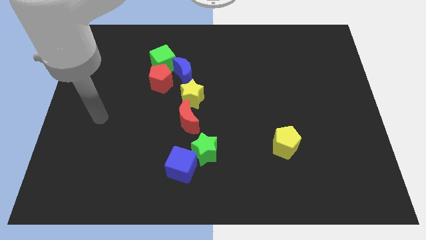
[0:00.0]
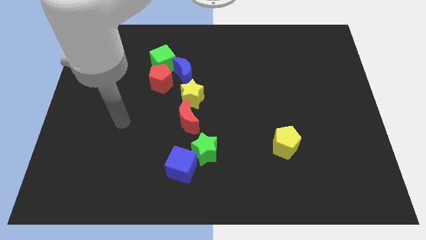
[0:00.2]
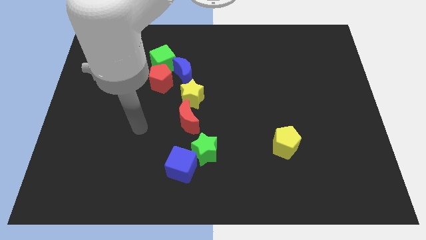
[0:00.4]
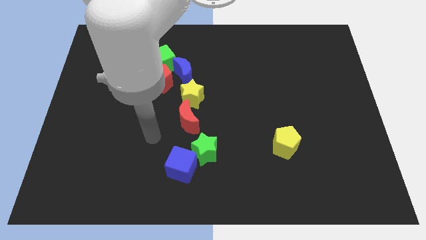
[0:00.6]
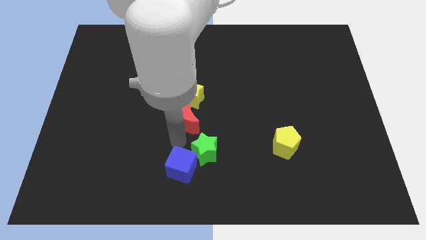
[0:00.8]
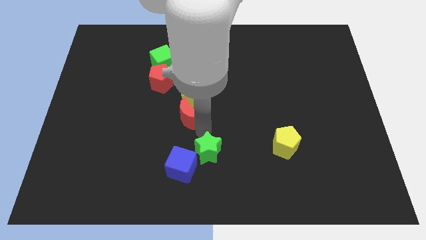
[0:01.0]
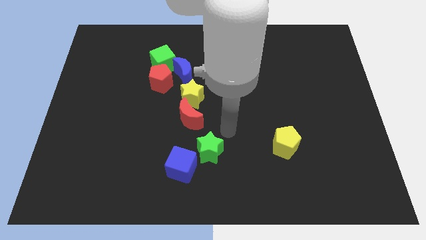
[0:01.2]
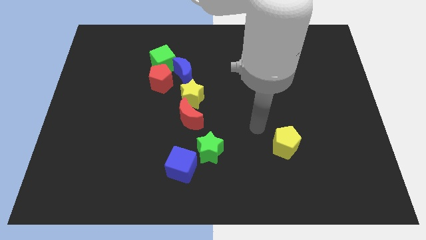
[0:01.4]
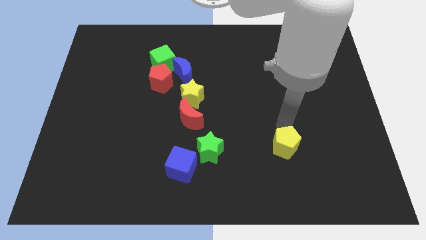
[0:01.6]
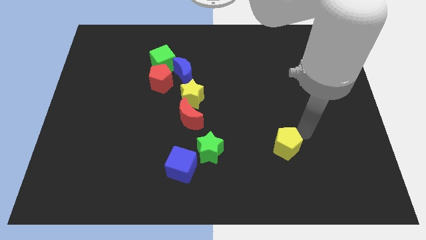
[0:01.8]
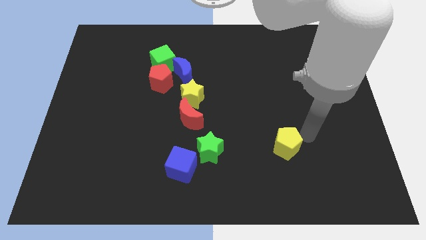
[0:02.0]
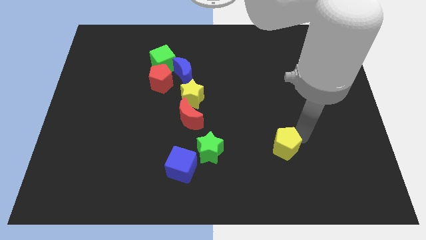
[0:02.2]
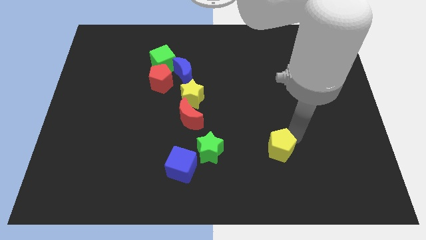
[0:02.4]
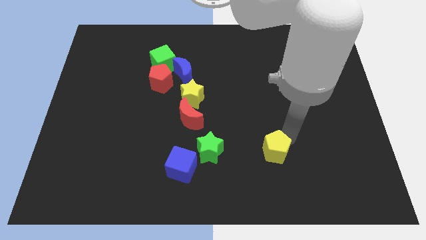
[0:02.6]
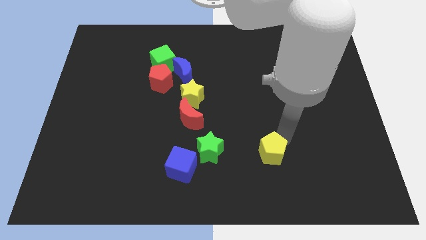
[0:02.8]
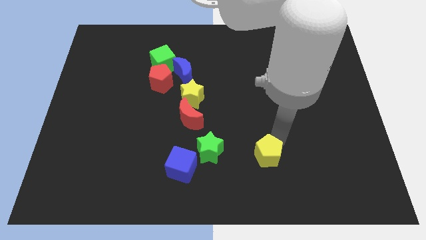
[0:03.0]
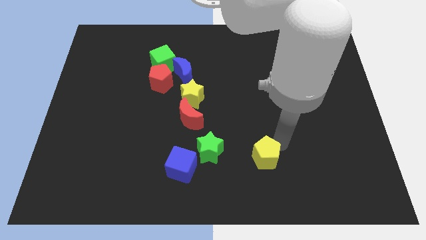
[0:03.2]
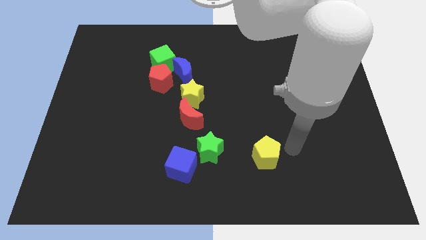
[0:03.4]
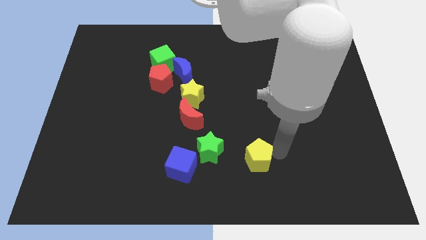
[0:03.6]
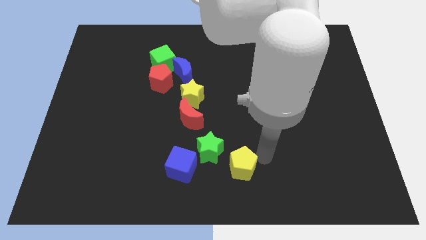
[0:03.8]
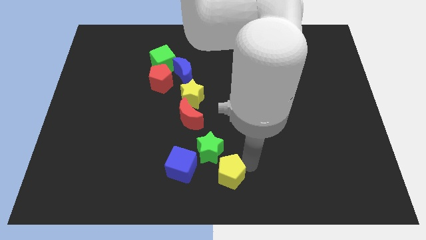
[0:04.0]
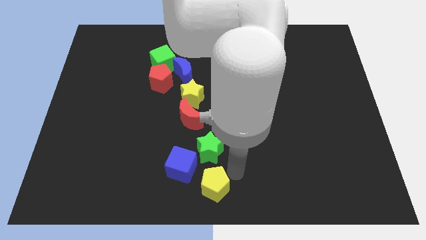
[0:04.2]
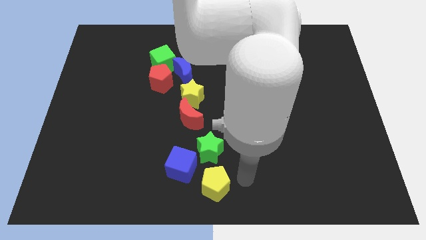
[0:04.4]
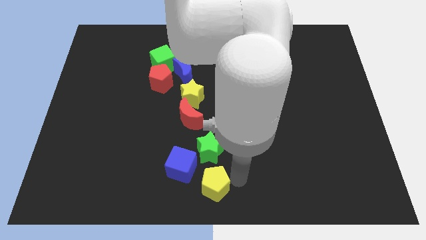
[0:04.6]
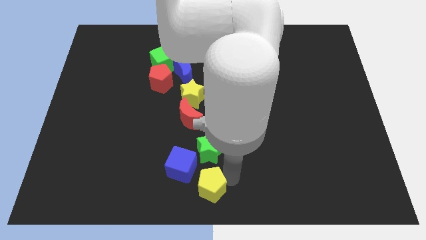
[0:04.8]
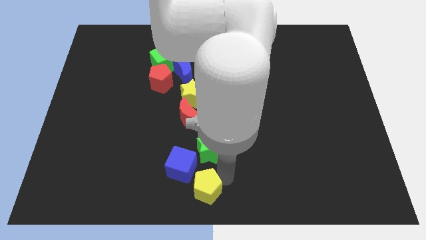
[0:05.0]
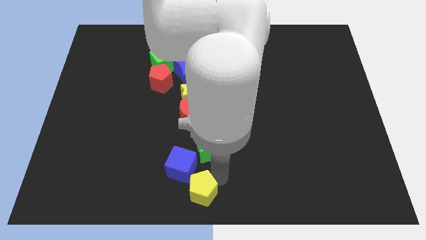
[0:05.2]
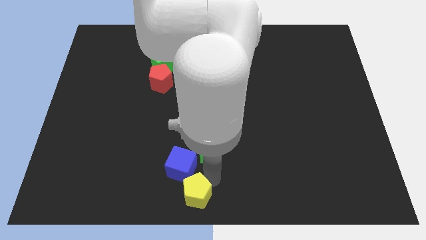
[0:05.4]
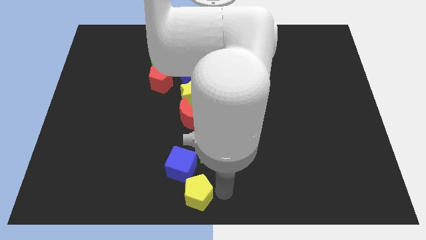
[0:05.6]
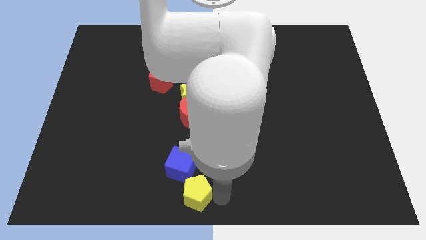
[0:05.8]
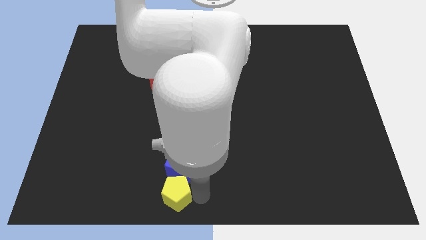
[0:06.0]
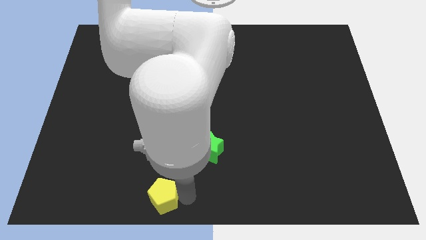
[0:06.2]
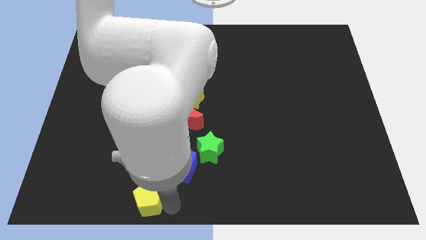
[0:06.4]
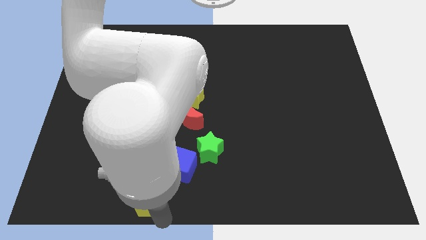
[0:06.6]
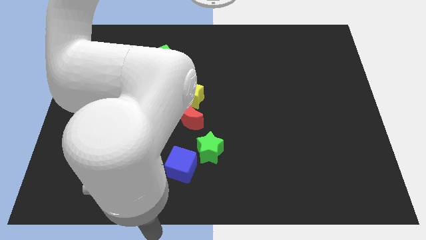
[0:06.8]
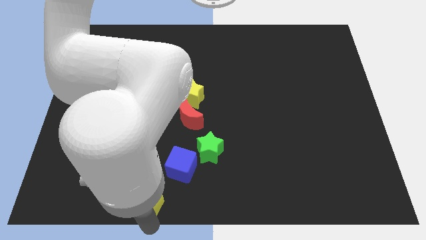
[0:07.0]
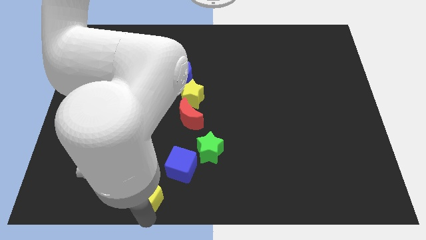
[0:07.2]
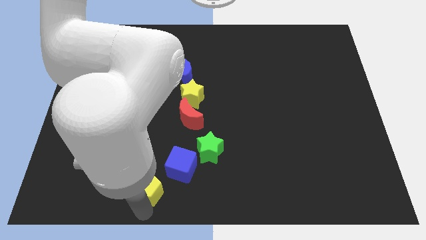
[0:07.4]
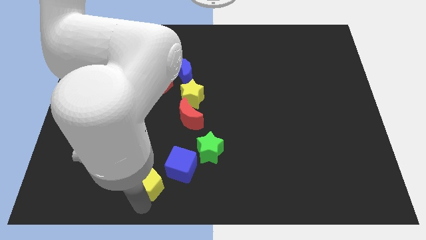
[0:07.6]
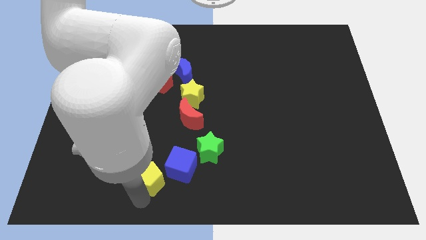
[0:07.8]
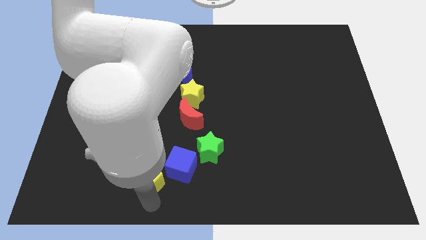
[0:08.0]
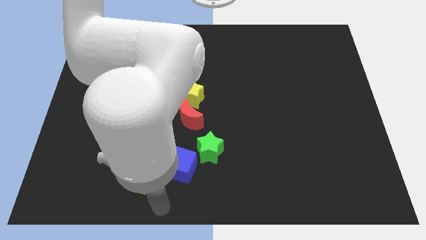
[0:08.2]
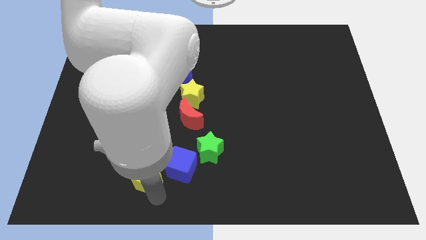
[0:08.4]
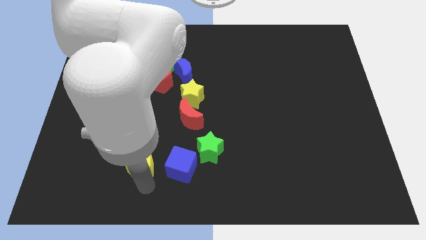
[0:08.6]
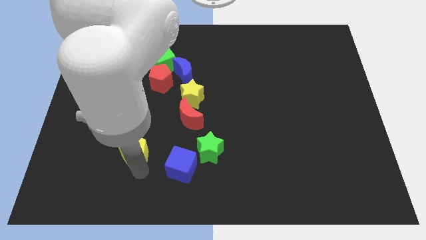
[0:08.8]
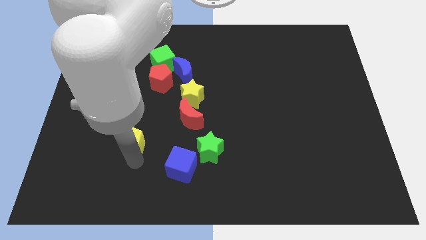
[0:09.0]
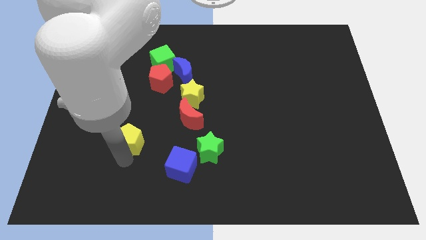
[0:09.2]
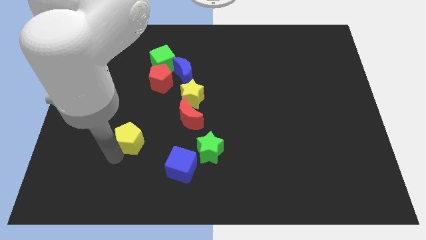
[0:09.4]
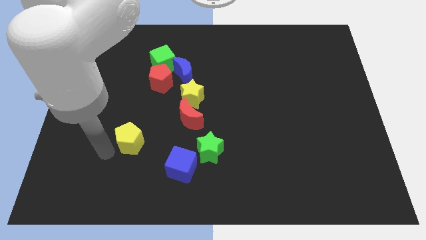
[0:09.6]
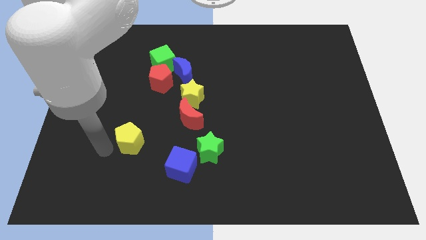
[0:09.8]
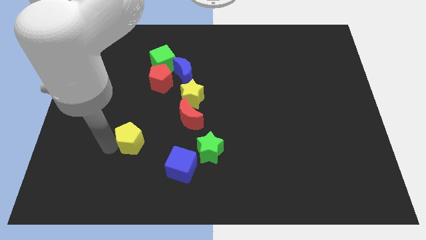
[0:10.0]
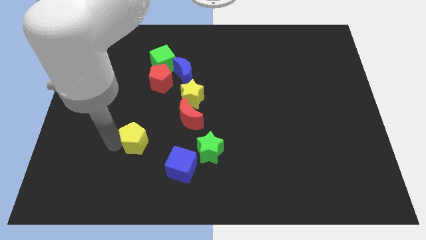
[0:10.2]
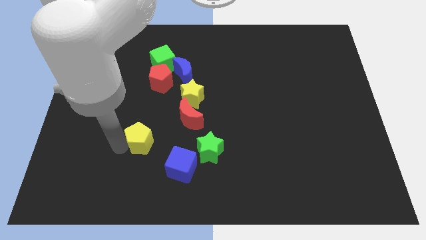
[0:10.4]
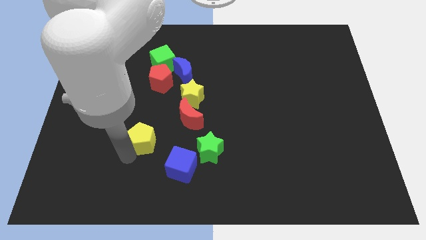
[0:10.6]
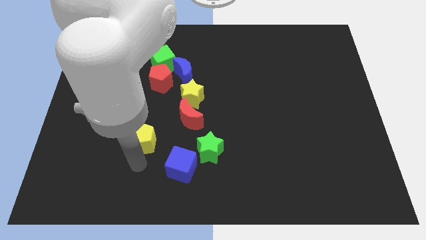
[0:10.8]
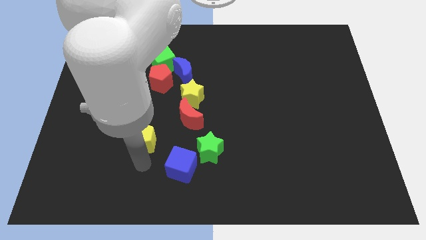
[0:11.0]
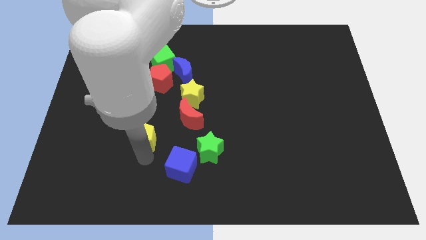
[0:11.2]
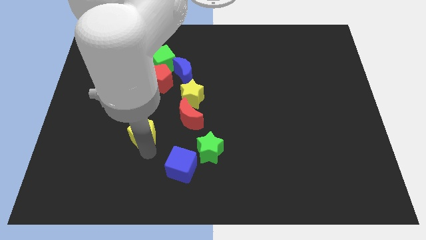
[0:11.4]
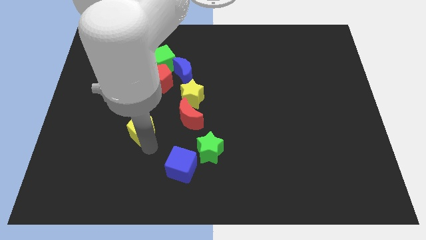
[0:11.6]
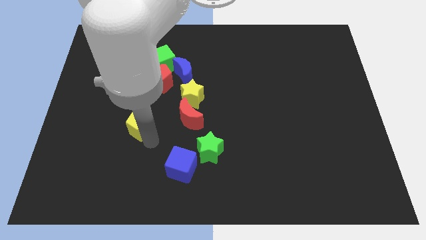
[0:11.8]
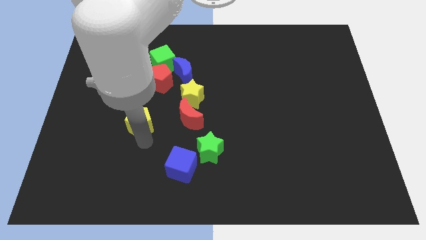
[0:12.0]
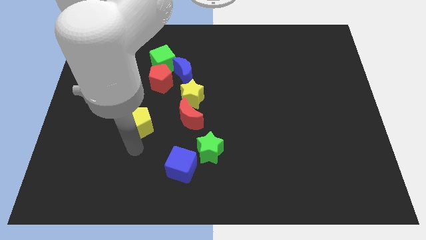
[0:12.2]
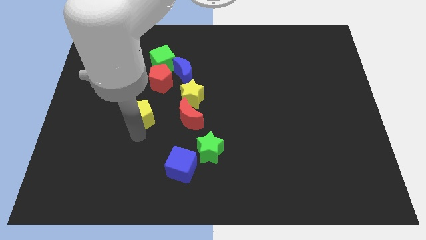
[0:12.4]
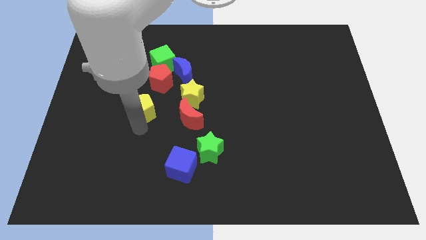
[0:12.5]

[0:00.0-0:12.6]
slide the yellow pentagon left of the yellow star

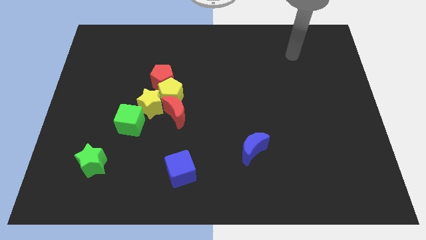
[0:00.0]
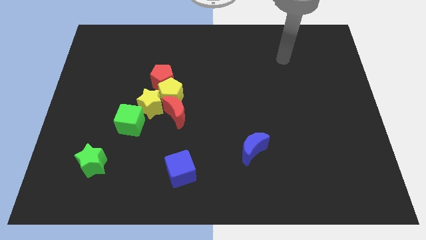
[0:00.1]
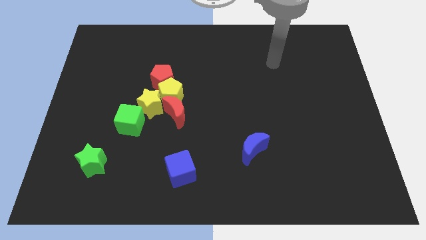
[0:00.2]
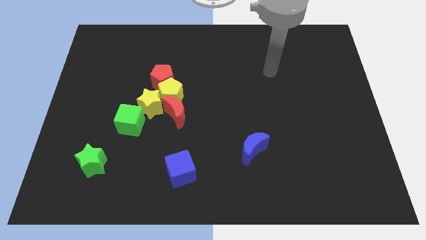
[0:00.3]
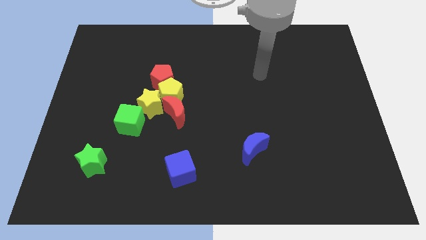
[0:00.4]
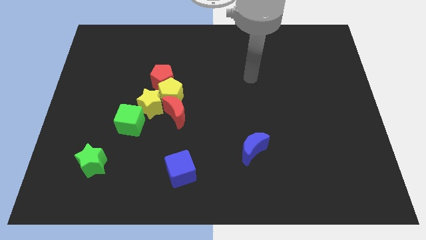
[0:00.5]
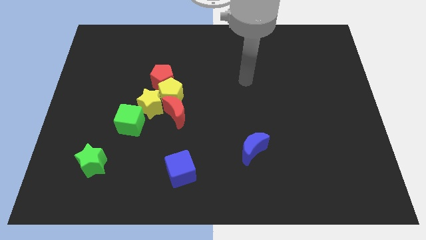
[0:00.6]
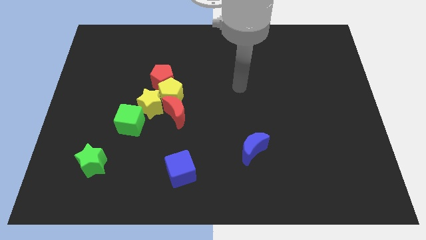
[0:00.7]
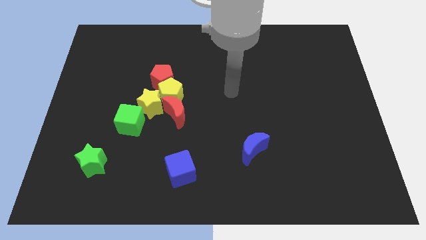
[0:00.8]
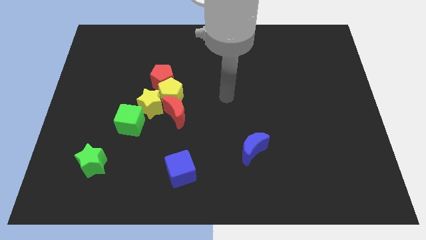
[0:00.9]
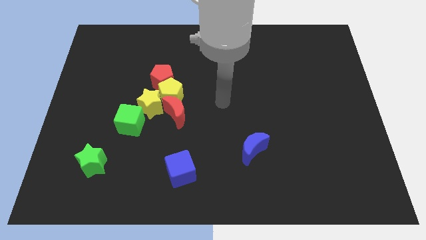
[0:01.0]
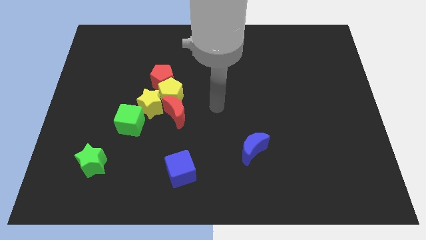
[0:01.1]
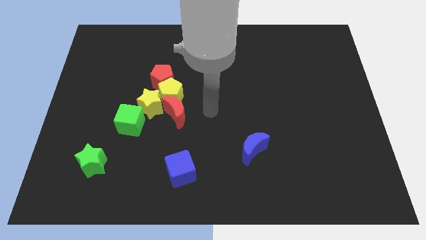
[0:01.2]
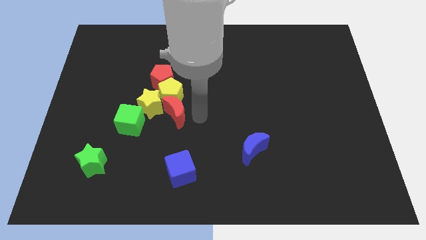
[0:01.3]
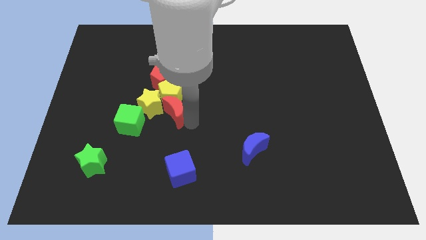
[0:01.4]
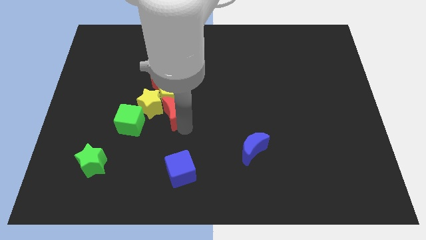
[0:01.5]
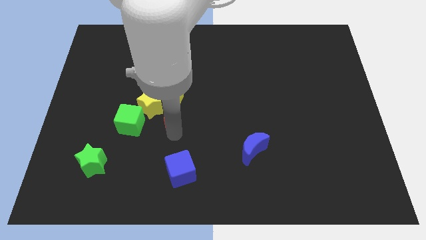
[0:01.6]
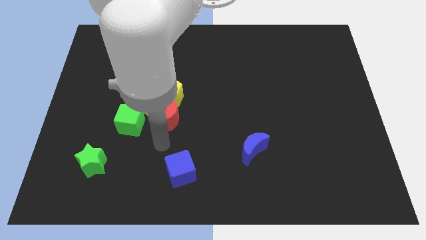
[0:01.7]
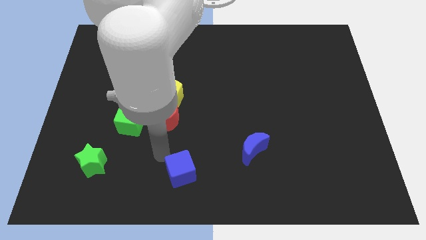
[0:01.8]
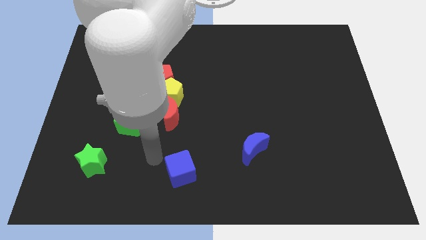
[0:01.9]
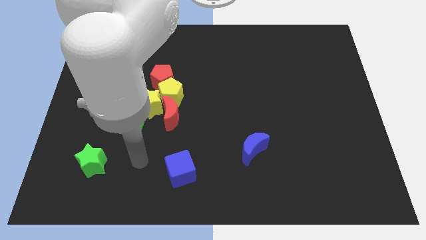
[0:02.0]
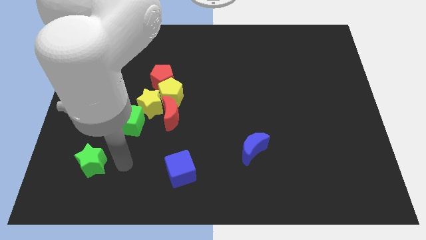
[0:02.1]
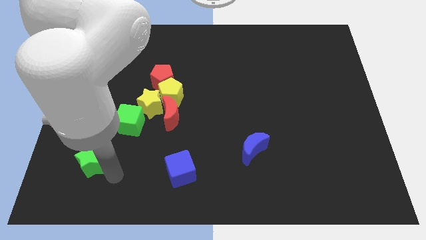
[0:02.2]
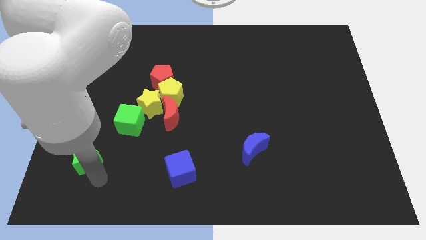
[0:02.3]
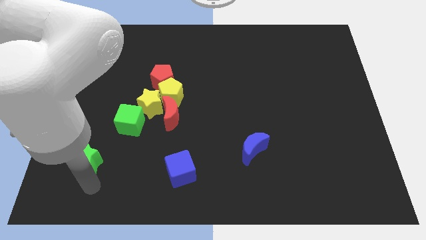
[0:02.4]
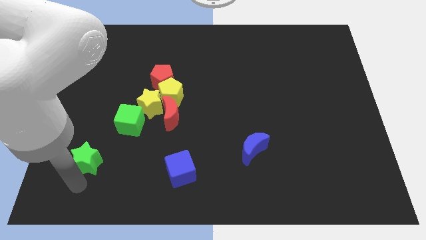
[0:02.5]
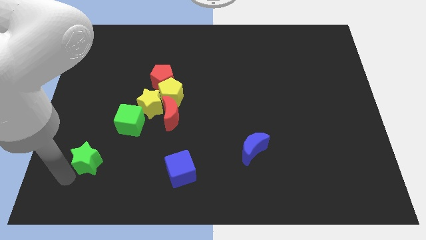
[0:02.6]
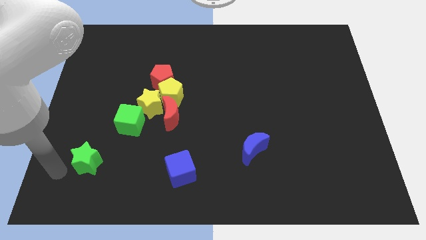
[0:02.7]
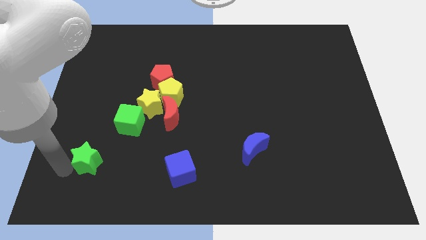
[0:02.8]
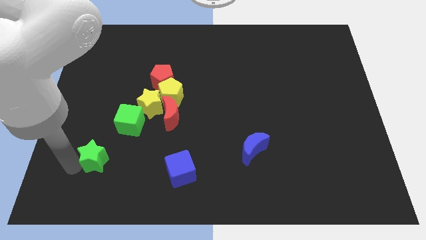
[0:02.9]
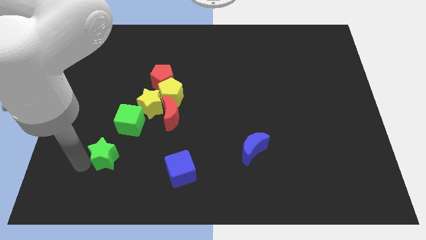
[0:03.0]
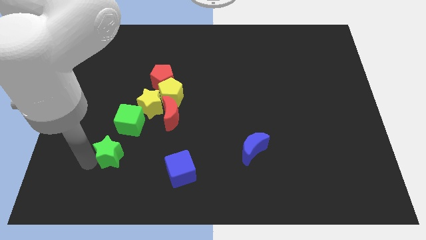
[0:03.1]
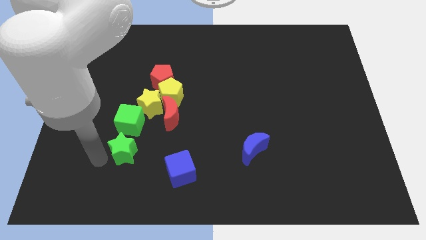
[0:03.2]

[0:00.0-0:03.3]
put the green star to the bottom side of the yellow star
